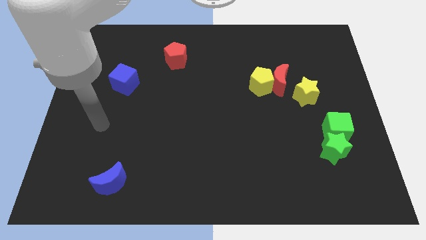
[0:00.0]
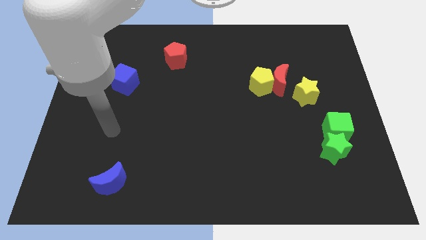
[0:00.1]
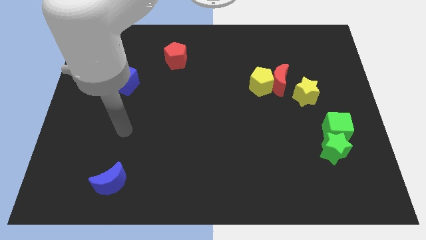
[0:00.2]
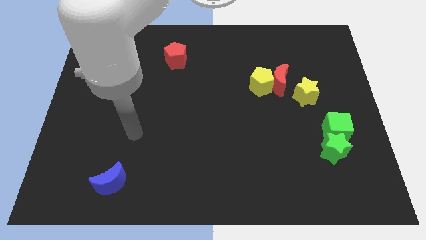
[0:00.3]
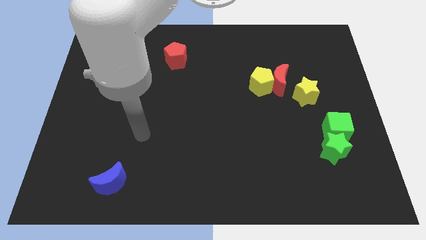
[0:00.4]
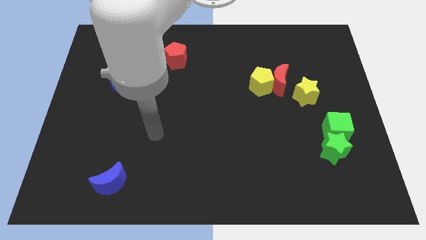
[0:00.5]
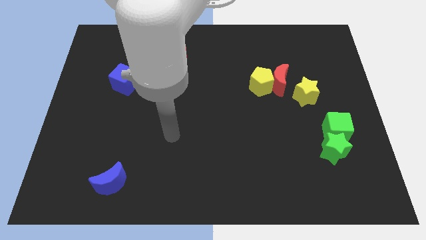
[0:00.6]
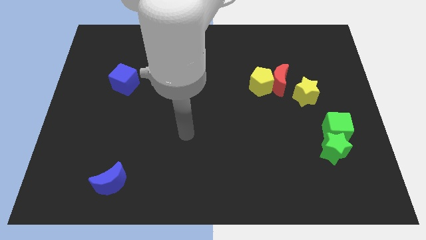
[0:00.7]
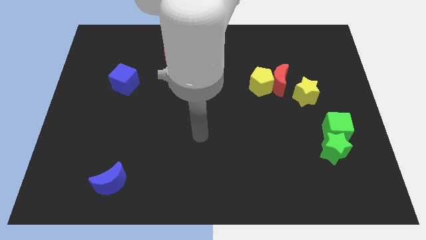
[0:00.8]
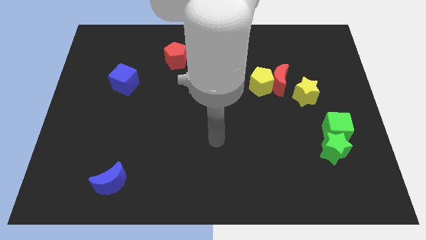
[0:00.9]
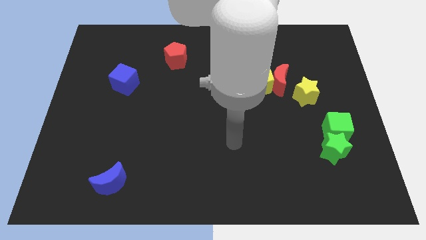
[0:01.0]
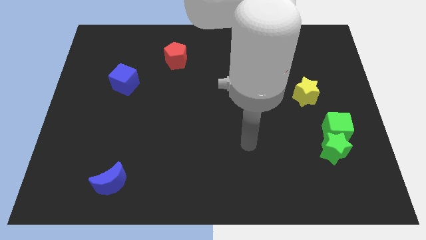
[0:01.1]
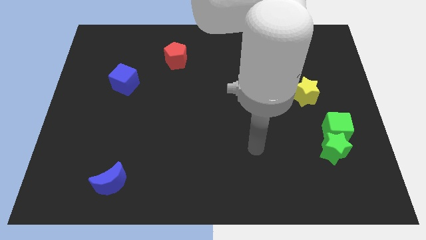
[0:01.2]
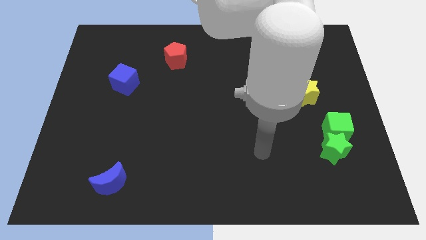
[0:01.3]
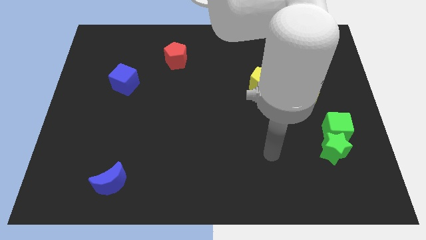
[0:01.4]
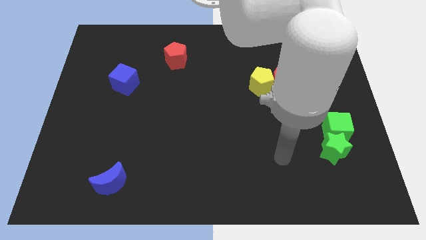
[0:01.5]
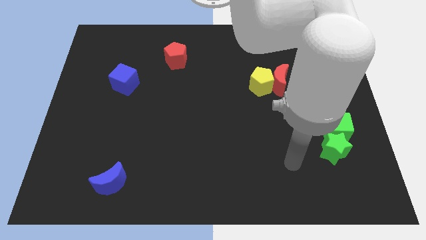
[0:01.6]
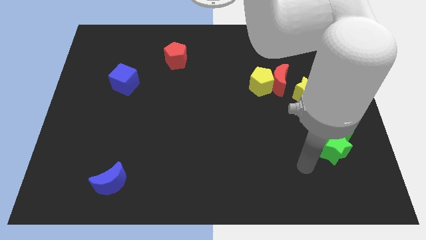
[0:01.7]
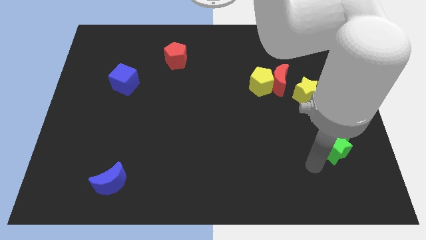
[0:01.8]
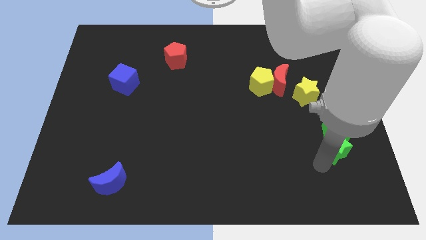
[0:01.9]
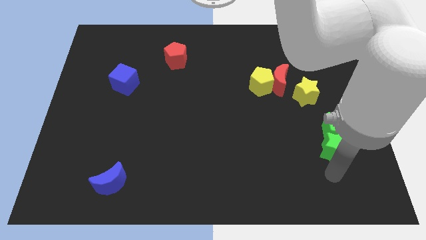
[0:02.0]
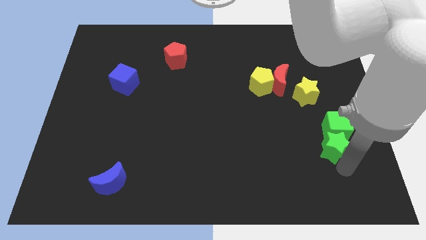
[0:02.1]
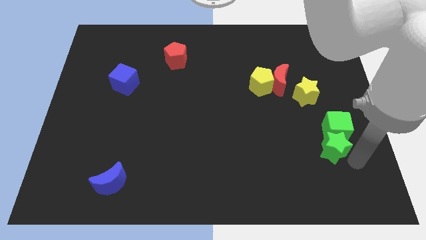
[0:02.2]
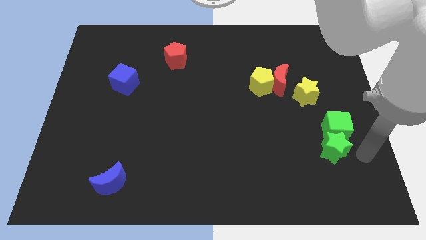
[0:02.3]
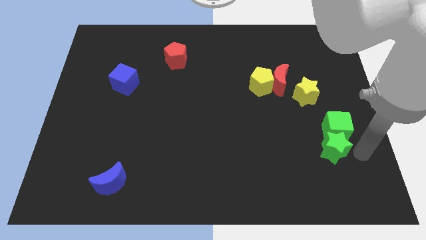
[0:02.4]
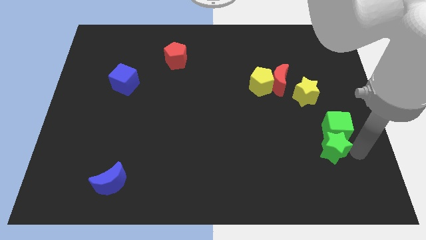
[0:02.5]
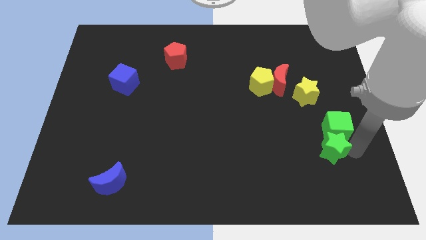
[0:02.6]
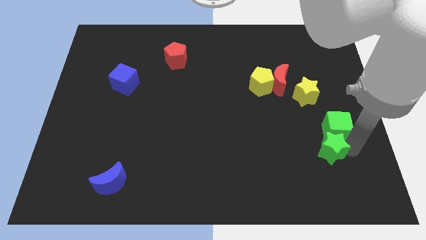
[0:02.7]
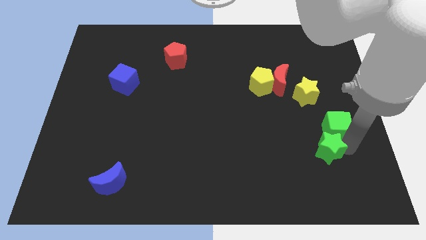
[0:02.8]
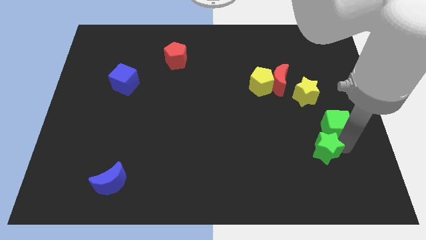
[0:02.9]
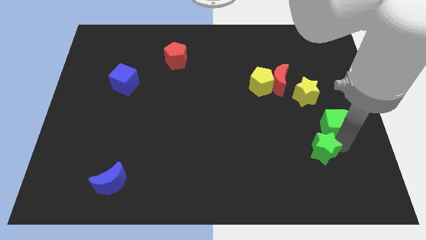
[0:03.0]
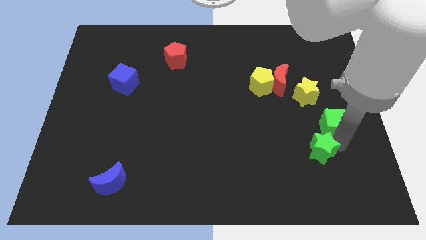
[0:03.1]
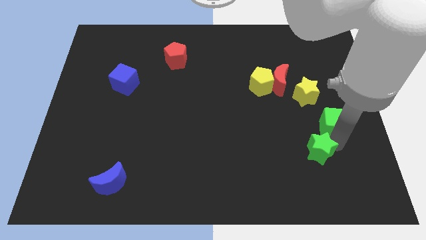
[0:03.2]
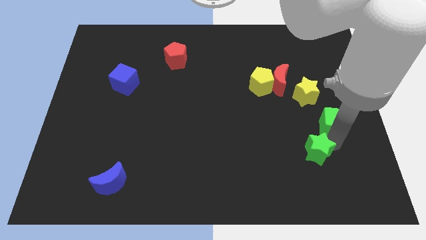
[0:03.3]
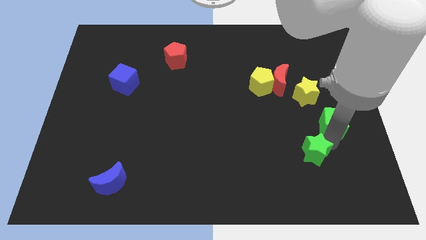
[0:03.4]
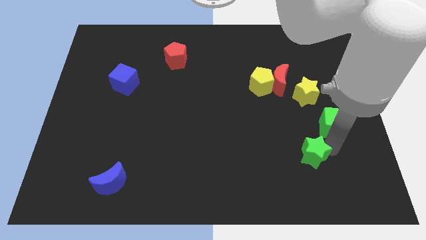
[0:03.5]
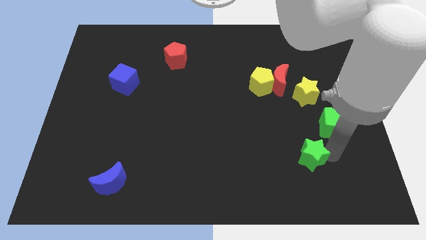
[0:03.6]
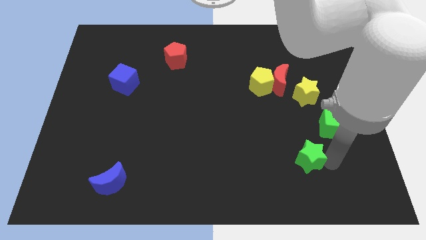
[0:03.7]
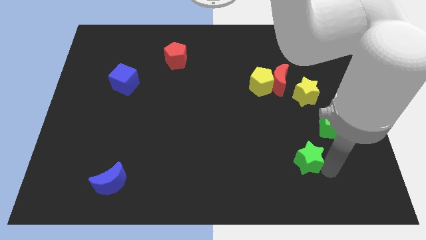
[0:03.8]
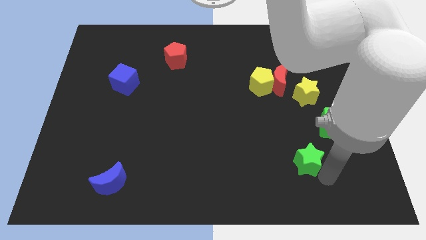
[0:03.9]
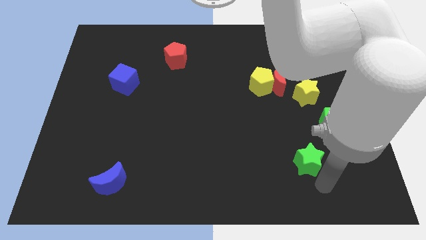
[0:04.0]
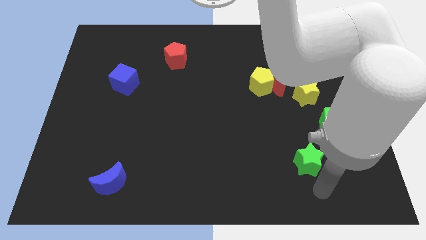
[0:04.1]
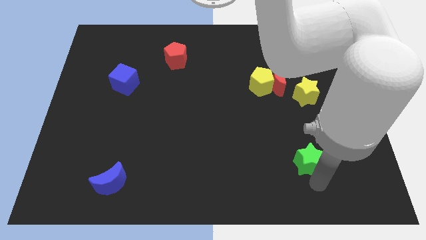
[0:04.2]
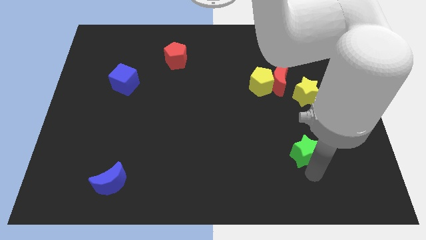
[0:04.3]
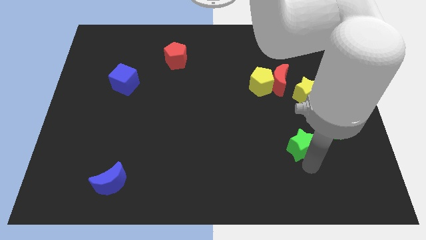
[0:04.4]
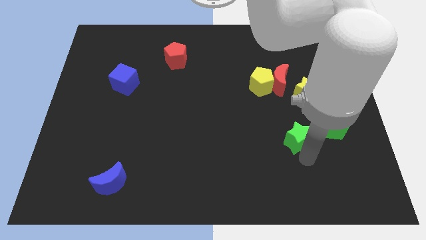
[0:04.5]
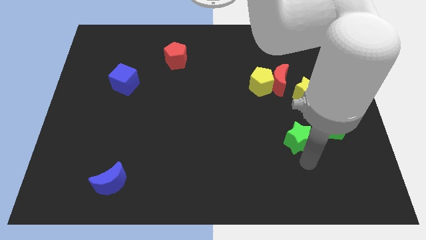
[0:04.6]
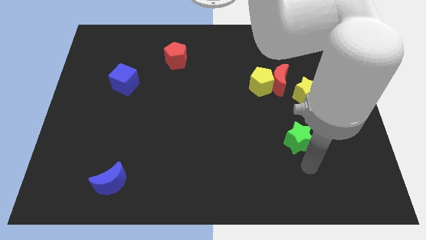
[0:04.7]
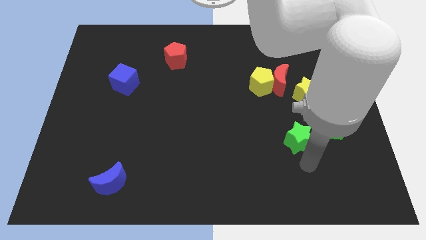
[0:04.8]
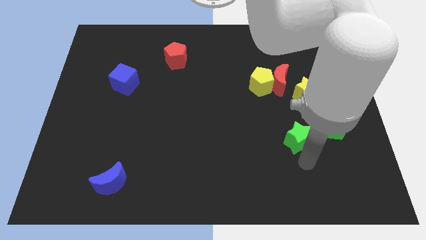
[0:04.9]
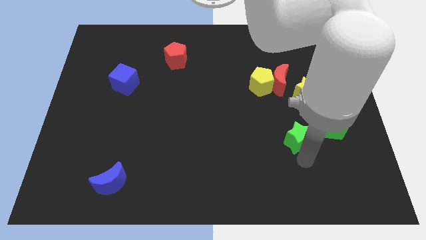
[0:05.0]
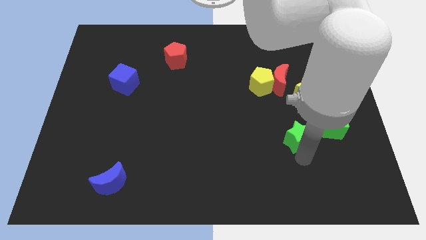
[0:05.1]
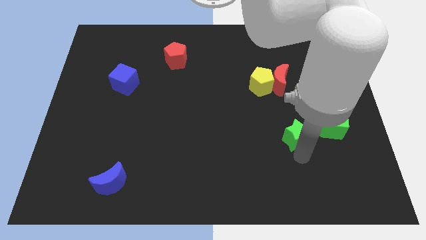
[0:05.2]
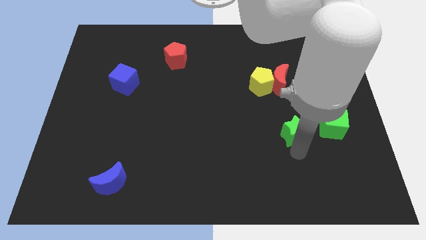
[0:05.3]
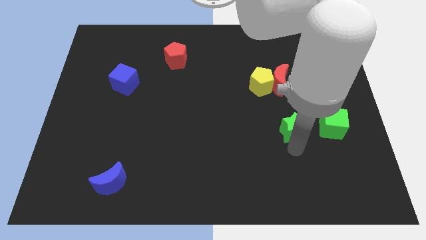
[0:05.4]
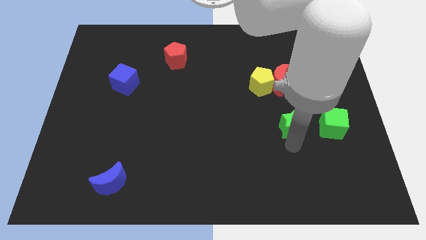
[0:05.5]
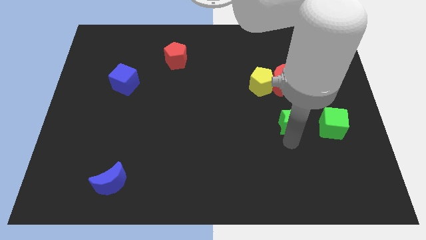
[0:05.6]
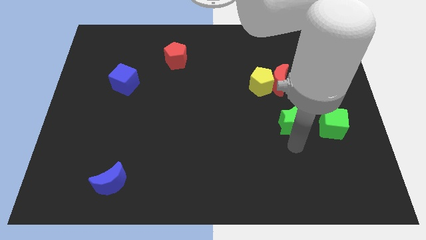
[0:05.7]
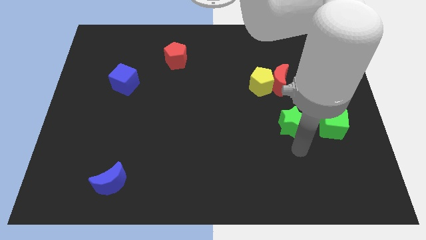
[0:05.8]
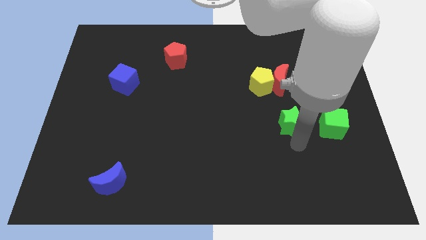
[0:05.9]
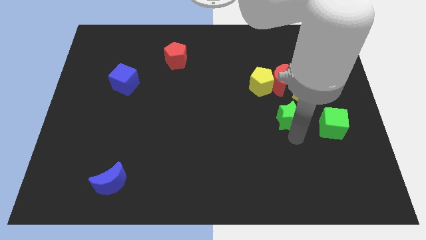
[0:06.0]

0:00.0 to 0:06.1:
put the green star to the bottom right side of the yellow pentagon

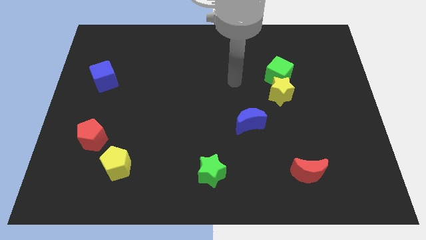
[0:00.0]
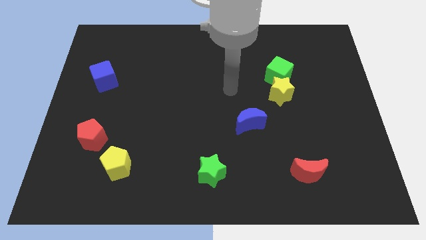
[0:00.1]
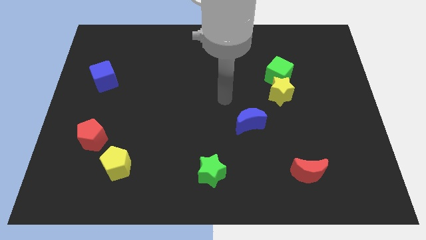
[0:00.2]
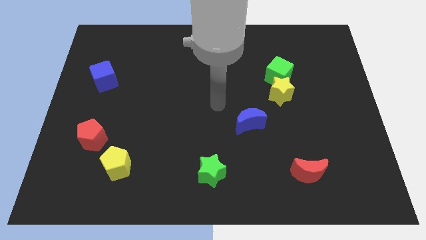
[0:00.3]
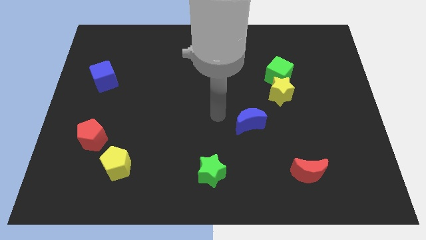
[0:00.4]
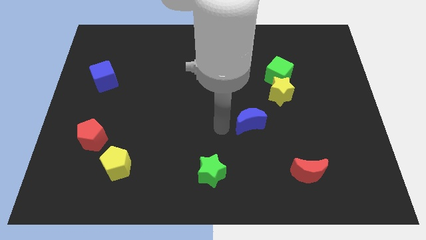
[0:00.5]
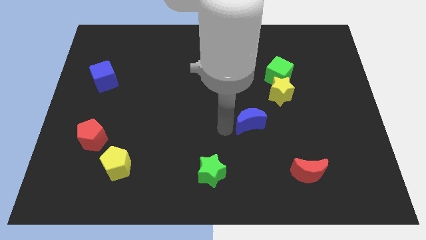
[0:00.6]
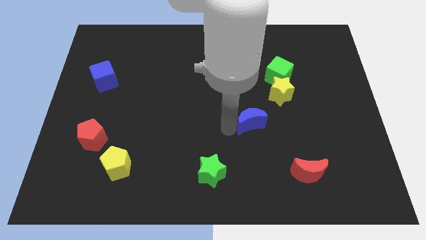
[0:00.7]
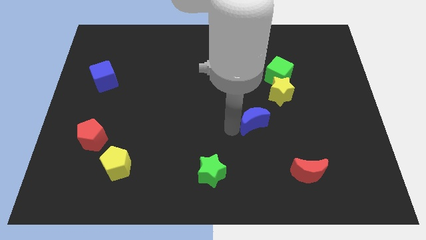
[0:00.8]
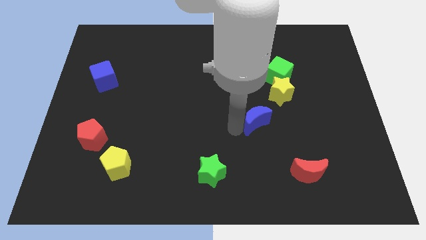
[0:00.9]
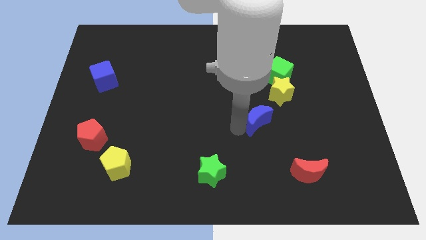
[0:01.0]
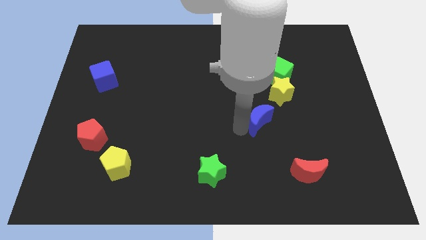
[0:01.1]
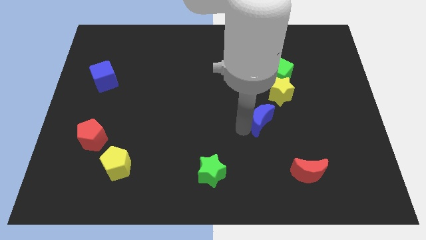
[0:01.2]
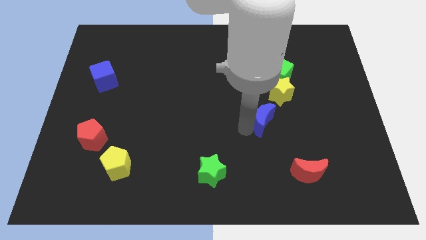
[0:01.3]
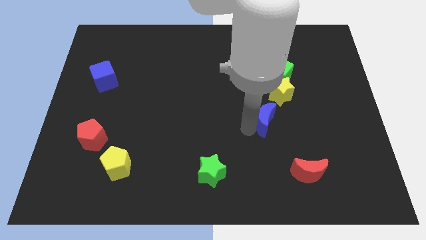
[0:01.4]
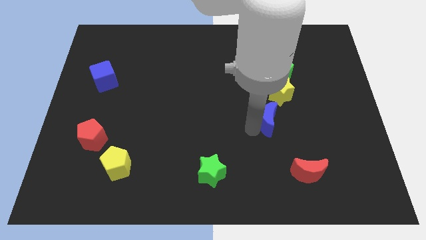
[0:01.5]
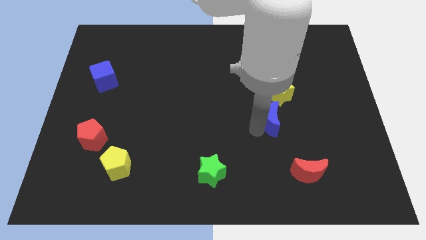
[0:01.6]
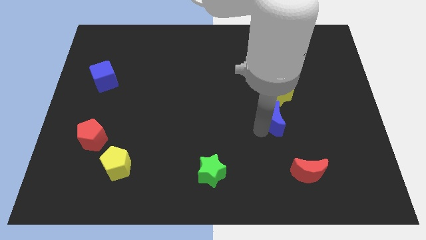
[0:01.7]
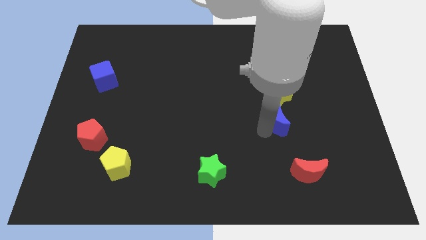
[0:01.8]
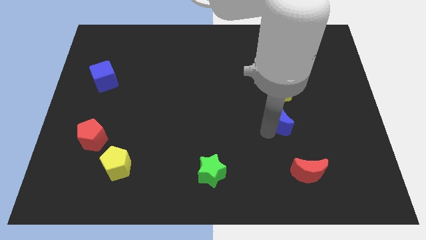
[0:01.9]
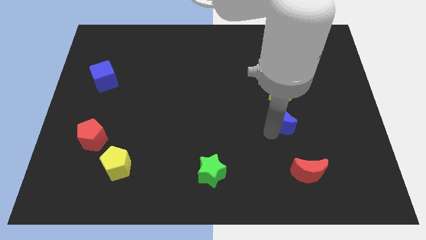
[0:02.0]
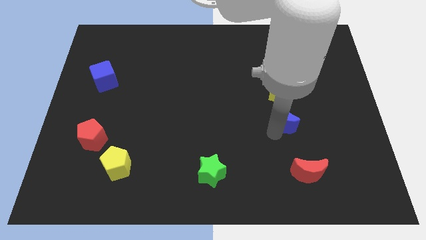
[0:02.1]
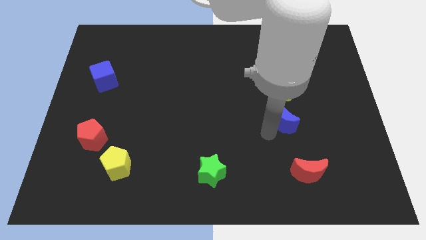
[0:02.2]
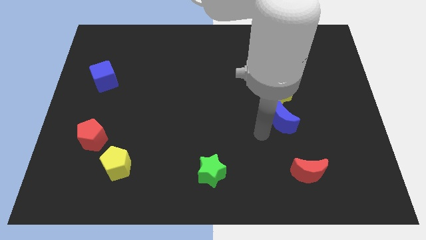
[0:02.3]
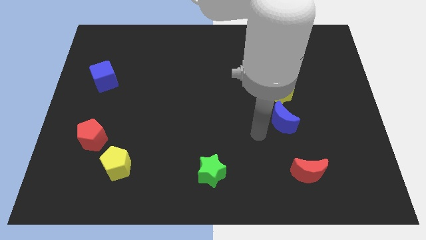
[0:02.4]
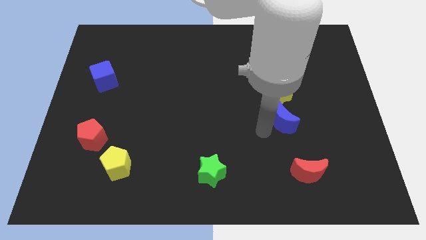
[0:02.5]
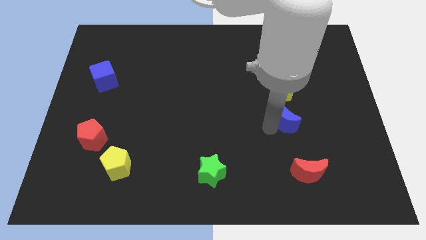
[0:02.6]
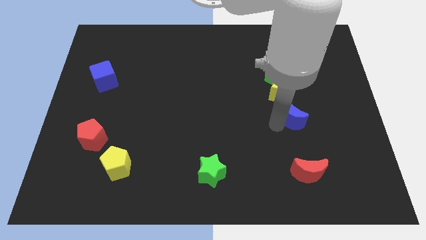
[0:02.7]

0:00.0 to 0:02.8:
move the blue moon to the bottom right side of the yellow star
